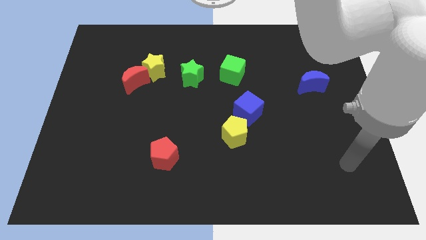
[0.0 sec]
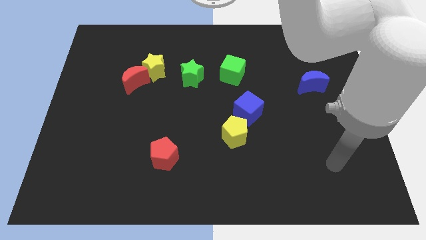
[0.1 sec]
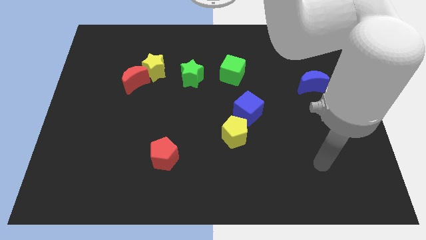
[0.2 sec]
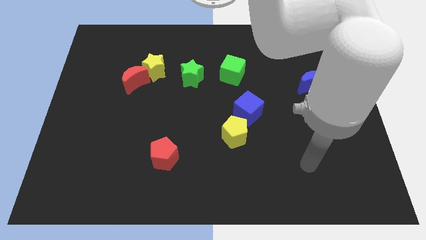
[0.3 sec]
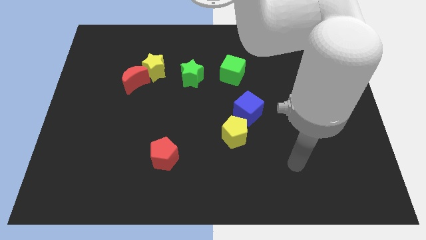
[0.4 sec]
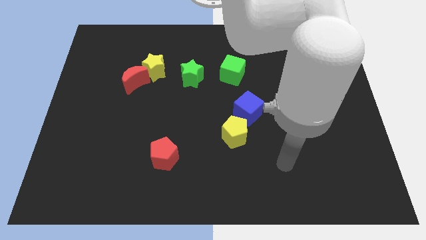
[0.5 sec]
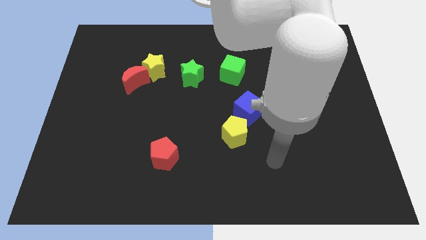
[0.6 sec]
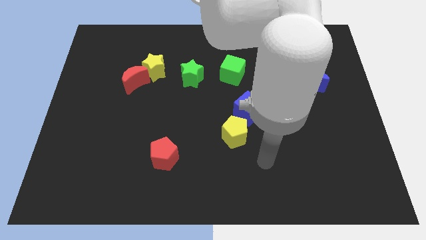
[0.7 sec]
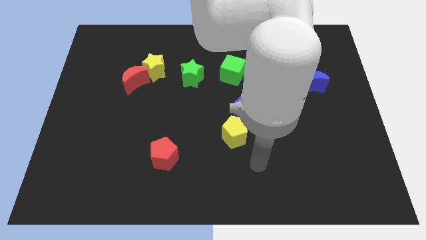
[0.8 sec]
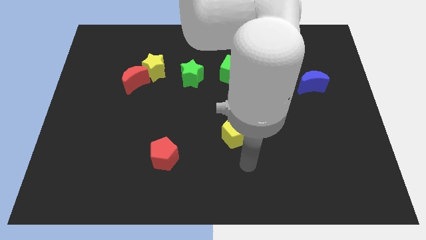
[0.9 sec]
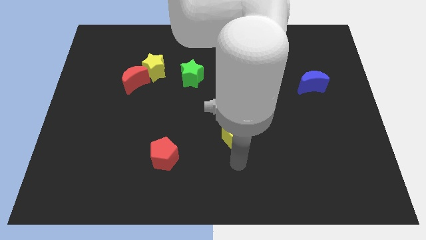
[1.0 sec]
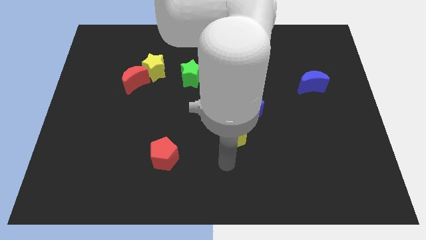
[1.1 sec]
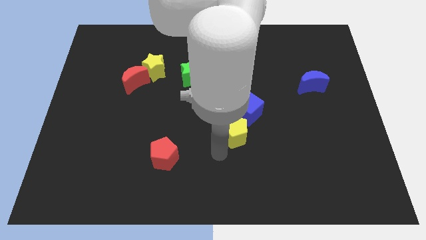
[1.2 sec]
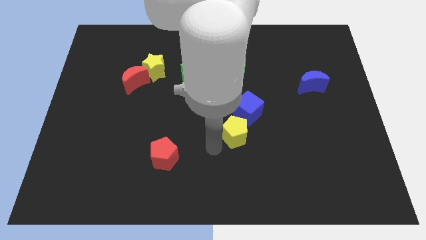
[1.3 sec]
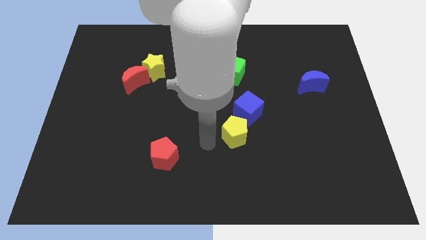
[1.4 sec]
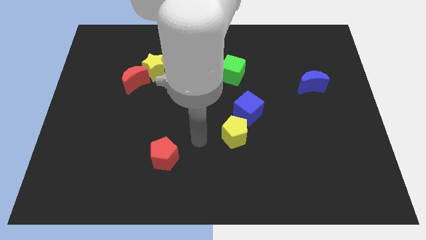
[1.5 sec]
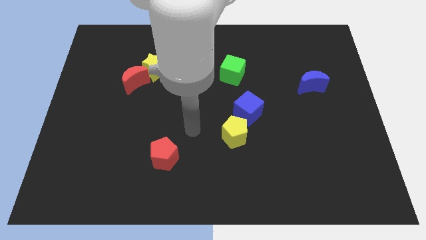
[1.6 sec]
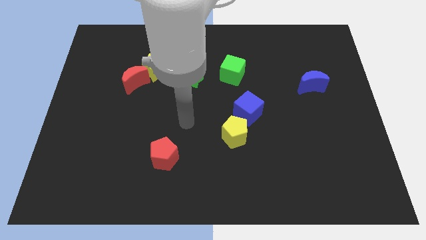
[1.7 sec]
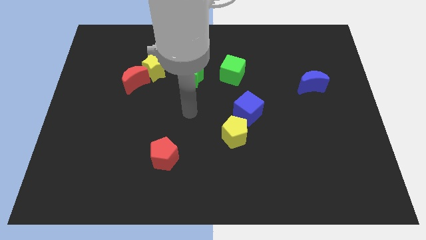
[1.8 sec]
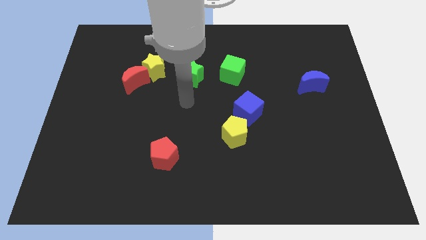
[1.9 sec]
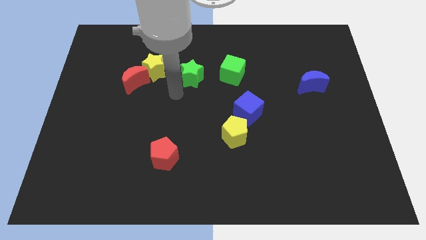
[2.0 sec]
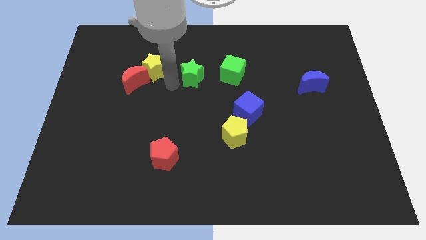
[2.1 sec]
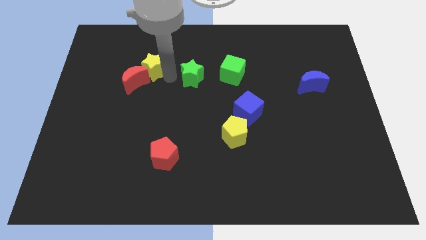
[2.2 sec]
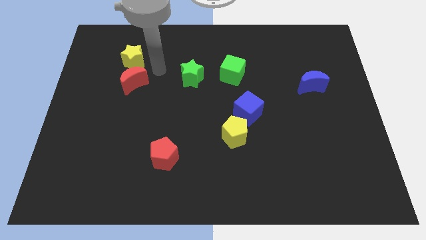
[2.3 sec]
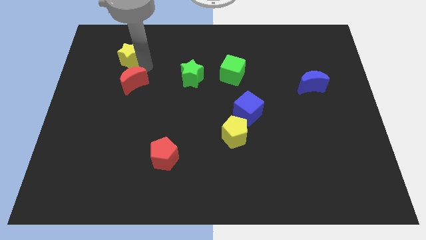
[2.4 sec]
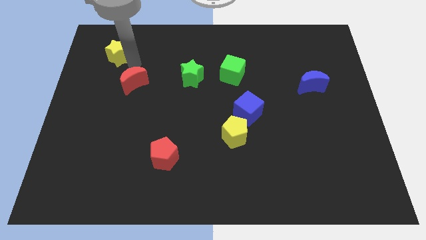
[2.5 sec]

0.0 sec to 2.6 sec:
separate the red moon from the yellow star

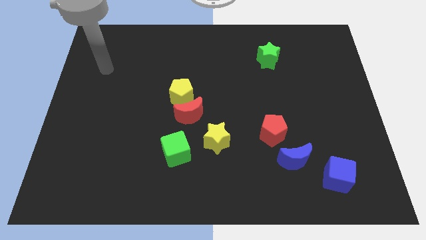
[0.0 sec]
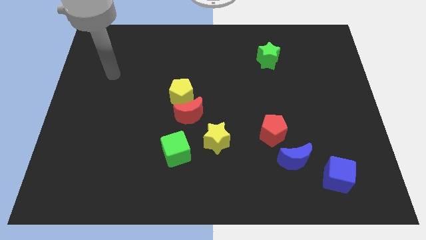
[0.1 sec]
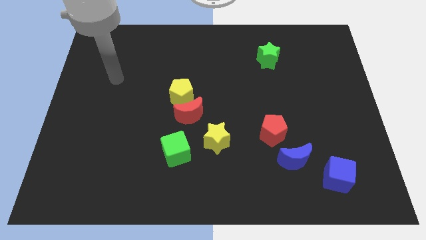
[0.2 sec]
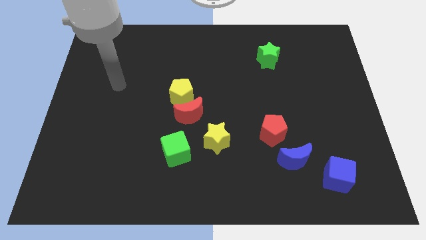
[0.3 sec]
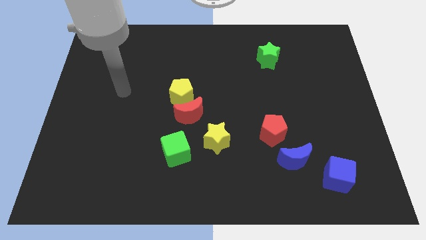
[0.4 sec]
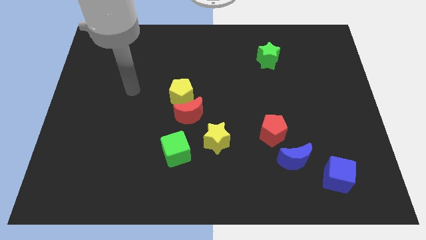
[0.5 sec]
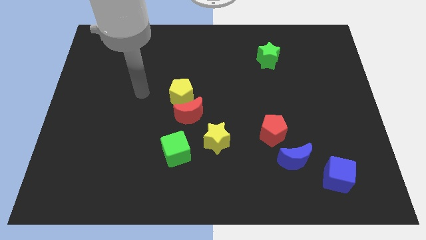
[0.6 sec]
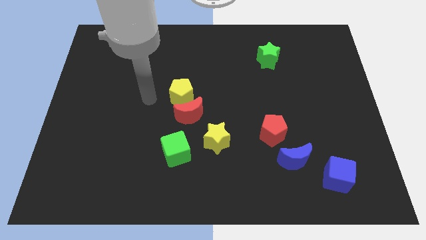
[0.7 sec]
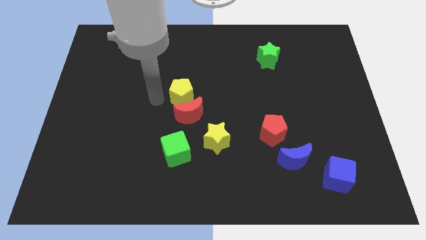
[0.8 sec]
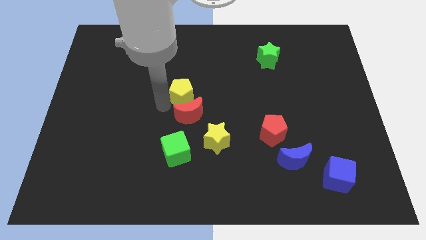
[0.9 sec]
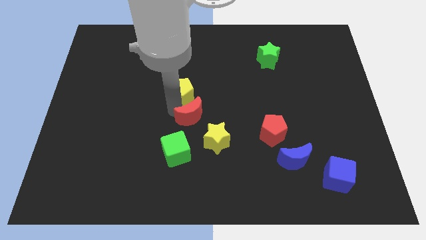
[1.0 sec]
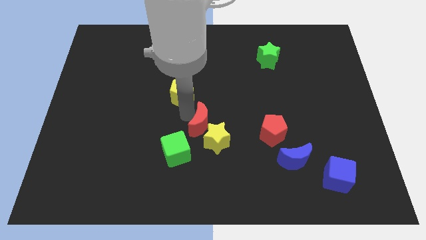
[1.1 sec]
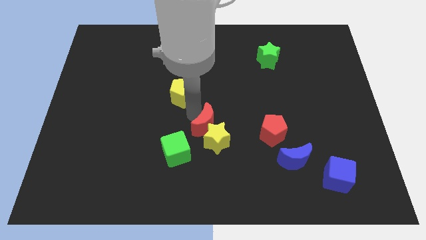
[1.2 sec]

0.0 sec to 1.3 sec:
pull the yellow pentagon apart from the red moon

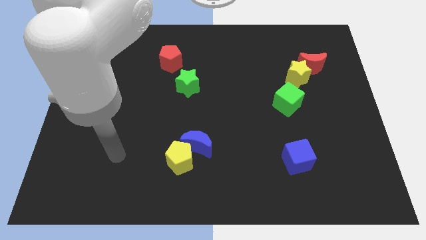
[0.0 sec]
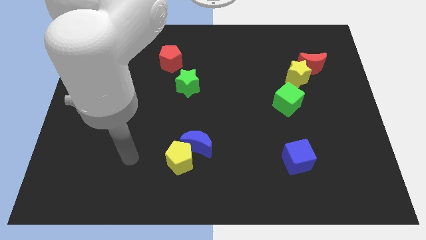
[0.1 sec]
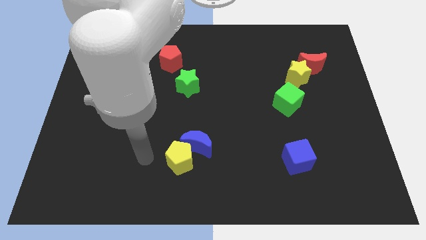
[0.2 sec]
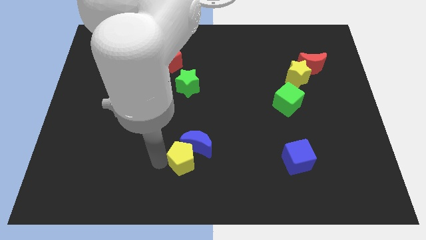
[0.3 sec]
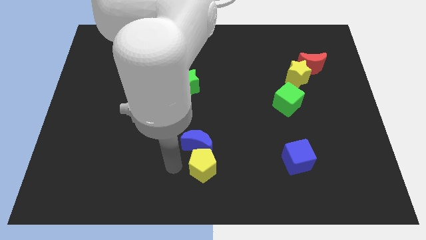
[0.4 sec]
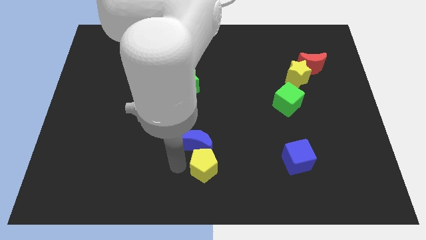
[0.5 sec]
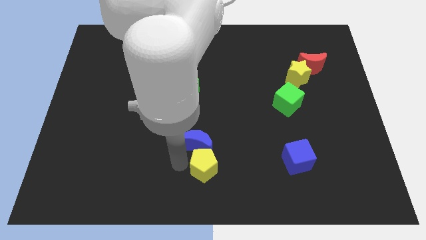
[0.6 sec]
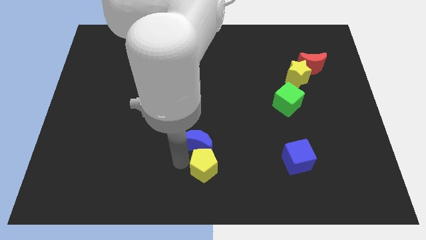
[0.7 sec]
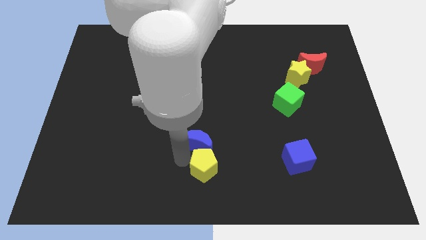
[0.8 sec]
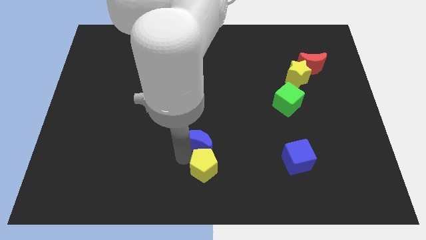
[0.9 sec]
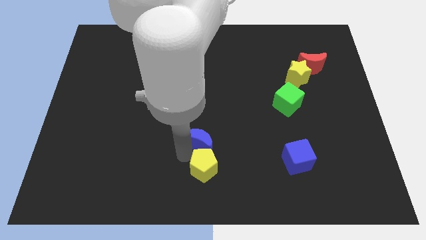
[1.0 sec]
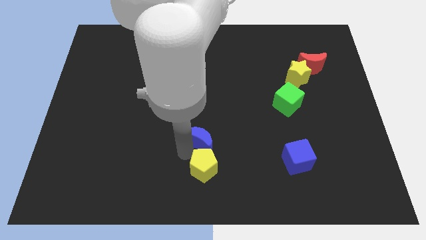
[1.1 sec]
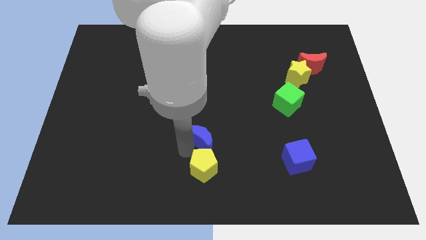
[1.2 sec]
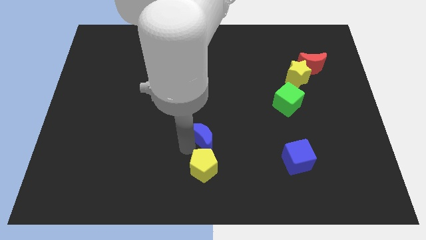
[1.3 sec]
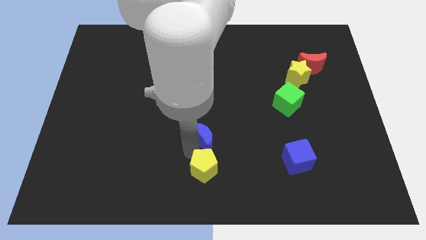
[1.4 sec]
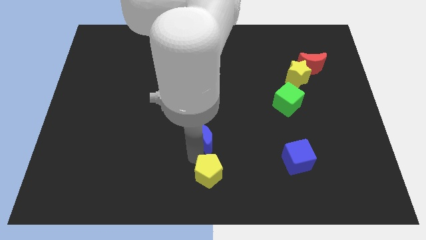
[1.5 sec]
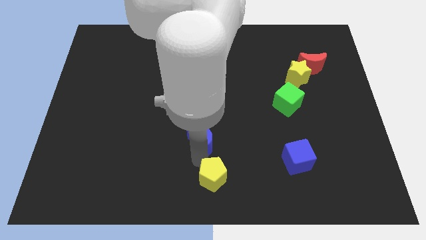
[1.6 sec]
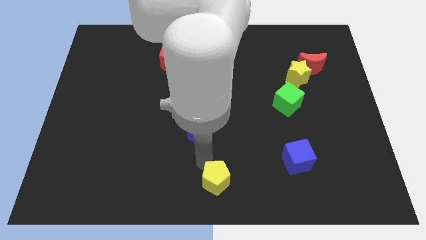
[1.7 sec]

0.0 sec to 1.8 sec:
pull the blue moon apart from the yellow pentagon

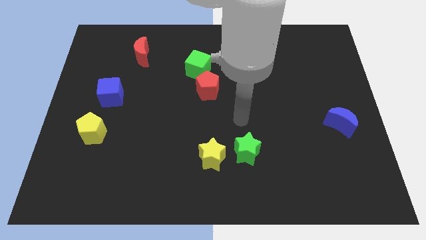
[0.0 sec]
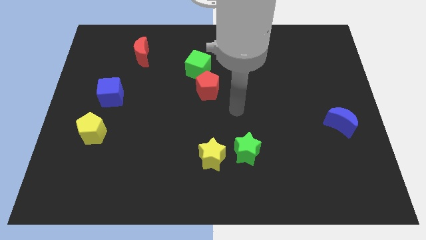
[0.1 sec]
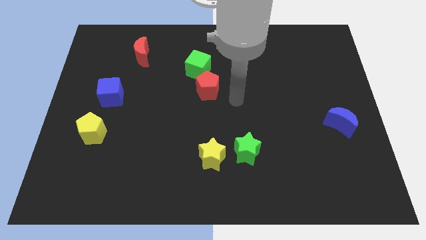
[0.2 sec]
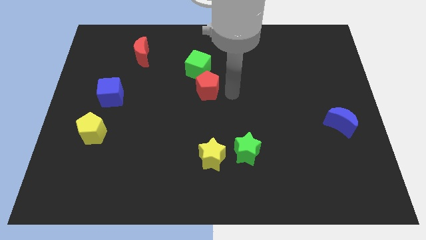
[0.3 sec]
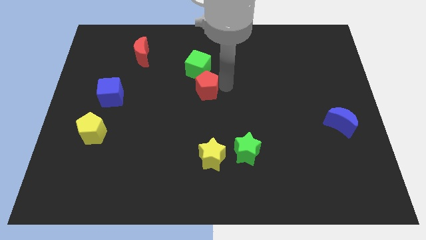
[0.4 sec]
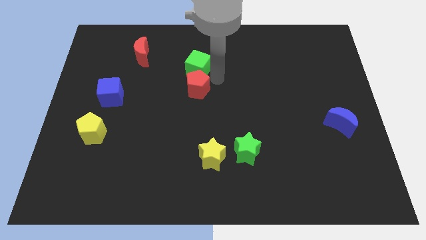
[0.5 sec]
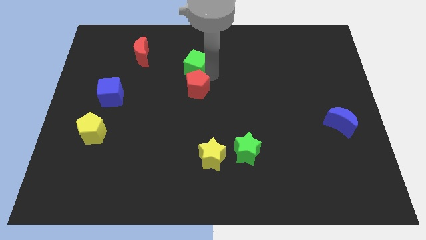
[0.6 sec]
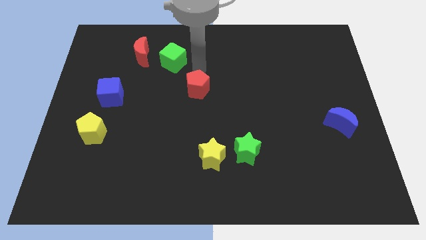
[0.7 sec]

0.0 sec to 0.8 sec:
separate the red pentagon from the green cube

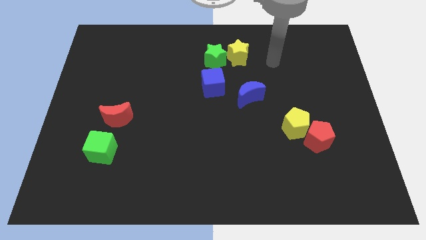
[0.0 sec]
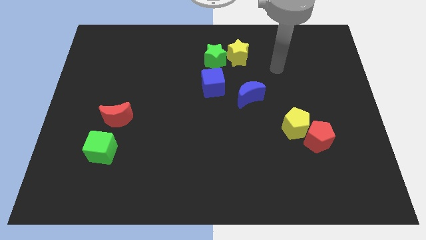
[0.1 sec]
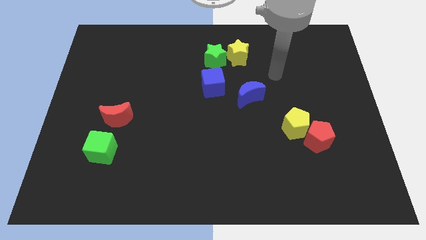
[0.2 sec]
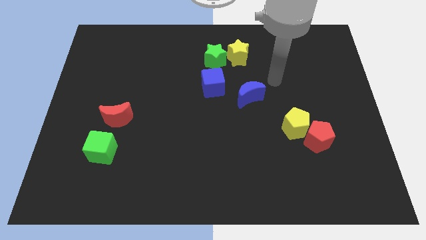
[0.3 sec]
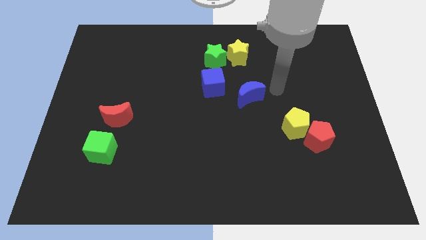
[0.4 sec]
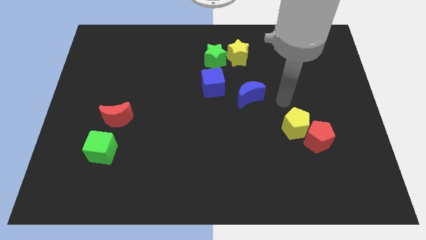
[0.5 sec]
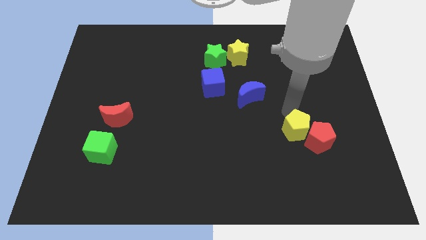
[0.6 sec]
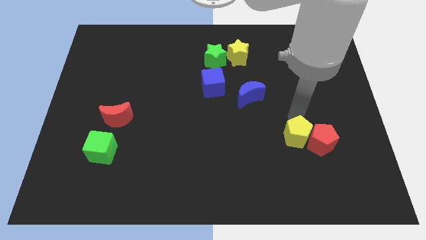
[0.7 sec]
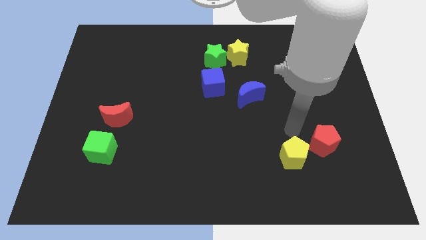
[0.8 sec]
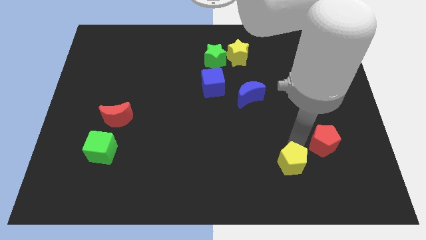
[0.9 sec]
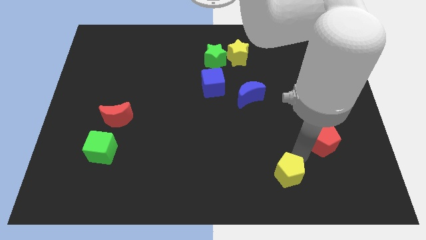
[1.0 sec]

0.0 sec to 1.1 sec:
separate the red pentagon from the yellow pentagon

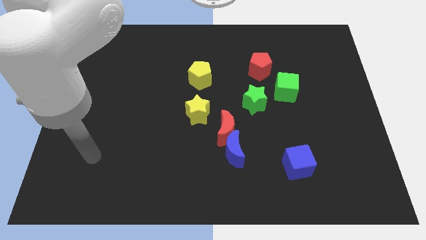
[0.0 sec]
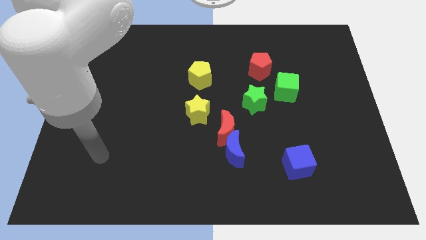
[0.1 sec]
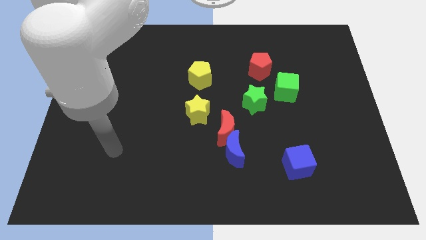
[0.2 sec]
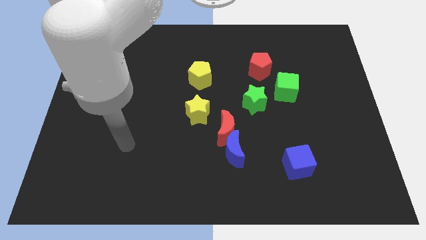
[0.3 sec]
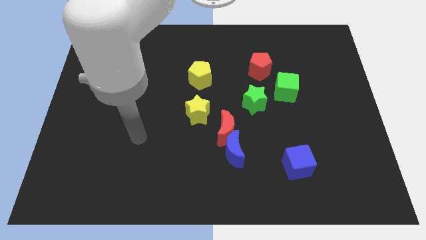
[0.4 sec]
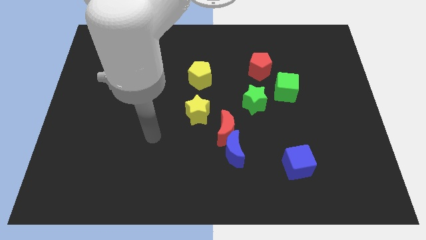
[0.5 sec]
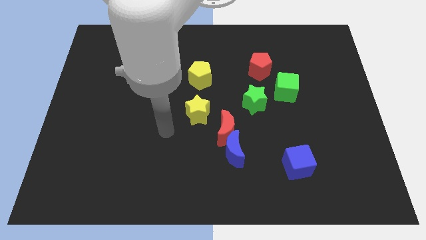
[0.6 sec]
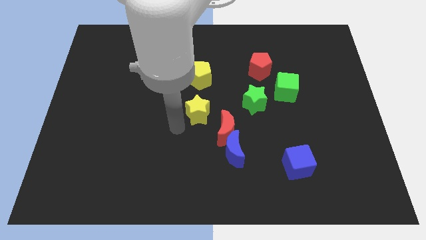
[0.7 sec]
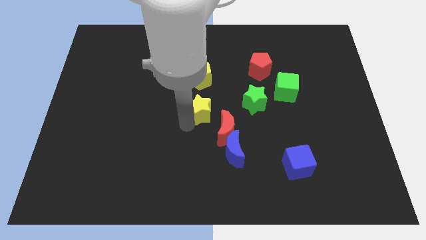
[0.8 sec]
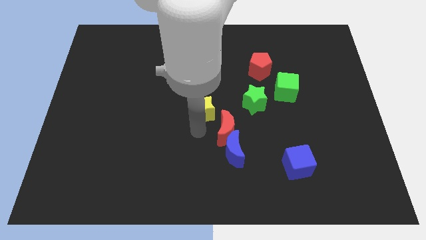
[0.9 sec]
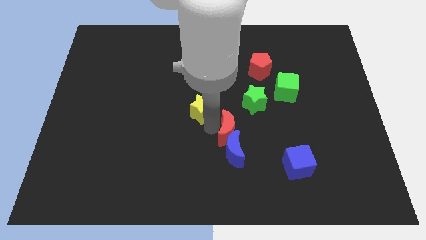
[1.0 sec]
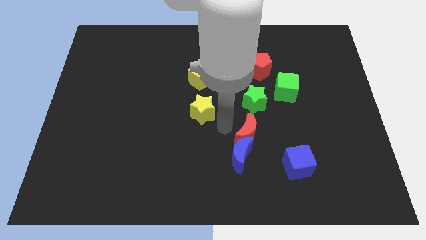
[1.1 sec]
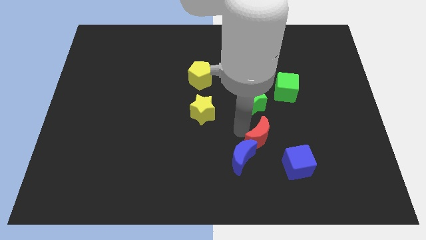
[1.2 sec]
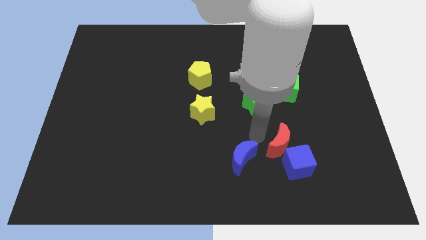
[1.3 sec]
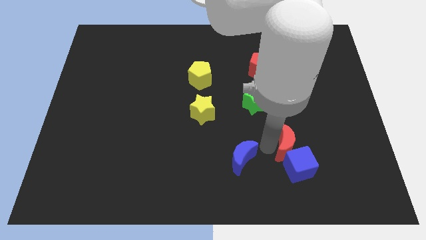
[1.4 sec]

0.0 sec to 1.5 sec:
separate the blue moon from the red moon

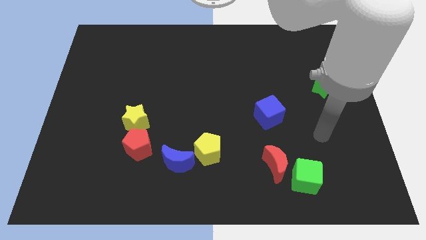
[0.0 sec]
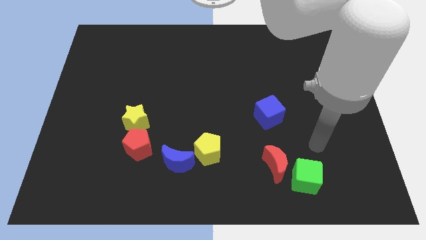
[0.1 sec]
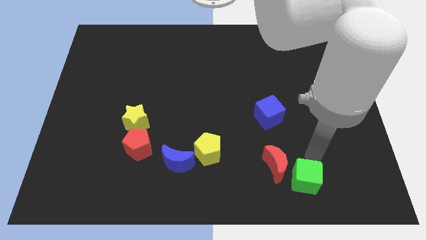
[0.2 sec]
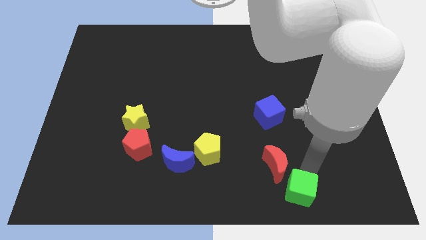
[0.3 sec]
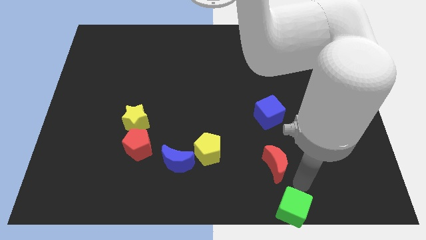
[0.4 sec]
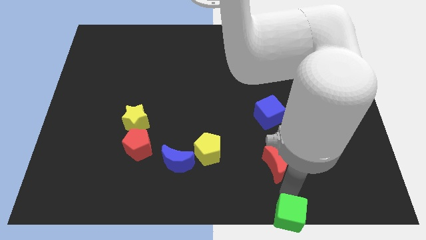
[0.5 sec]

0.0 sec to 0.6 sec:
separate the red moon from the green cube
